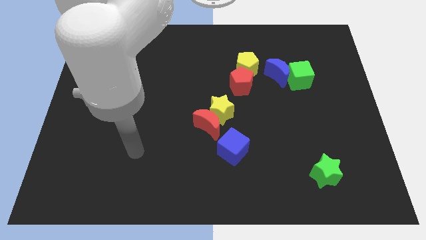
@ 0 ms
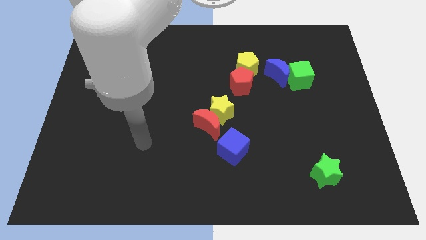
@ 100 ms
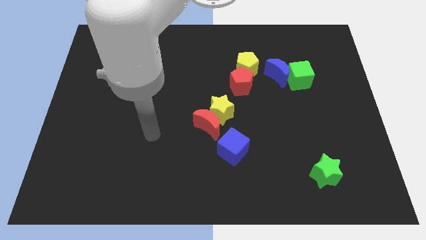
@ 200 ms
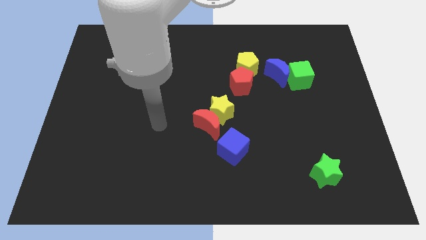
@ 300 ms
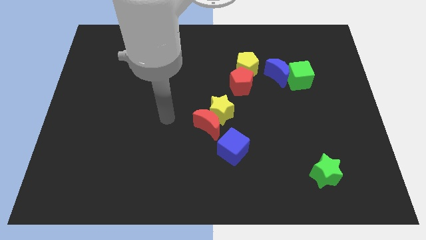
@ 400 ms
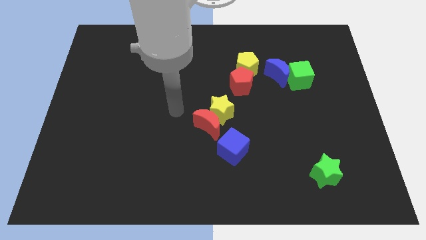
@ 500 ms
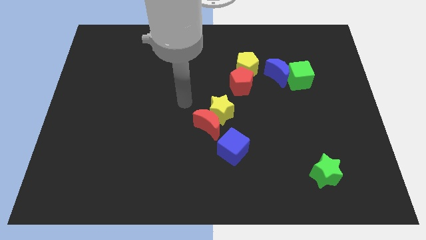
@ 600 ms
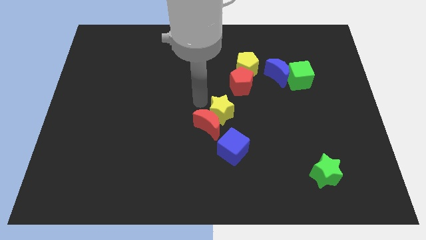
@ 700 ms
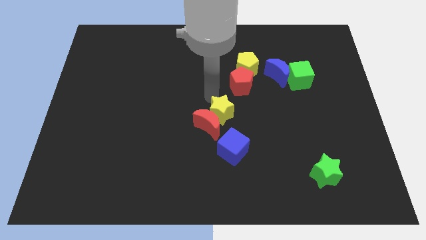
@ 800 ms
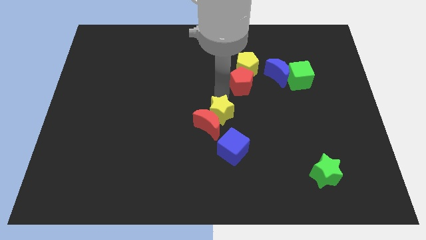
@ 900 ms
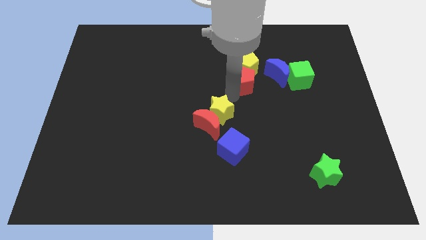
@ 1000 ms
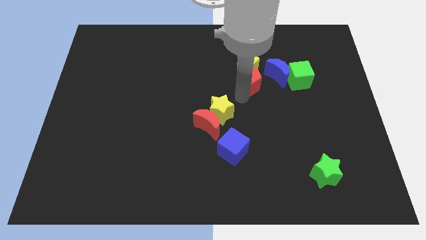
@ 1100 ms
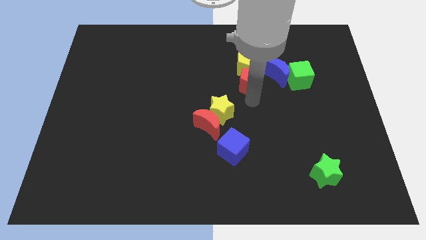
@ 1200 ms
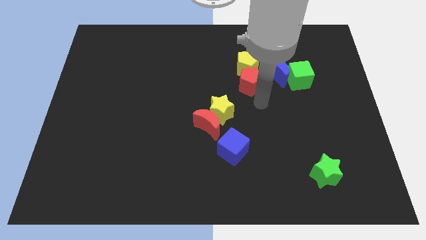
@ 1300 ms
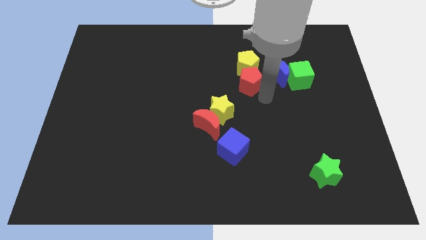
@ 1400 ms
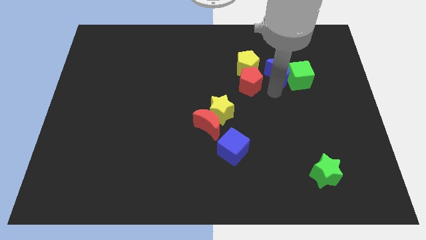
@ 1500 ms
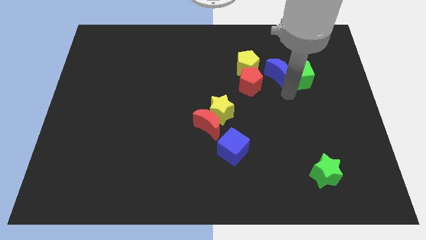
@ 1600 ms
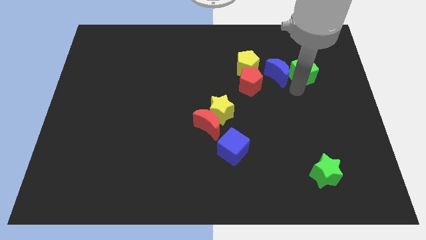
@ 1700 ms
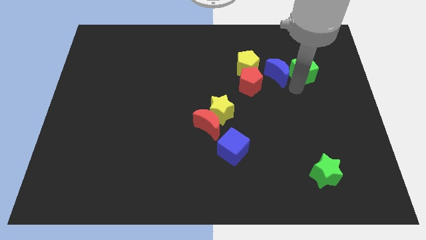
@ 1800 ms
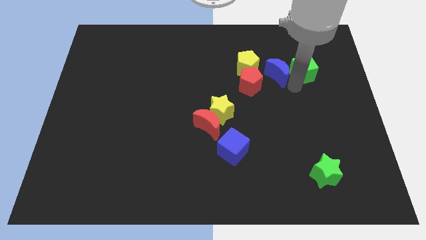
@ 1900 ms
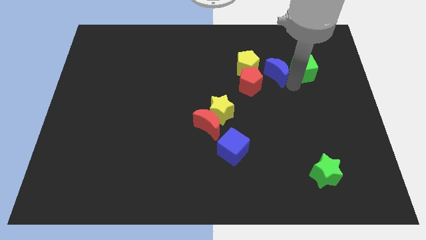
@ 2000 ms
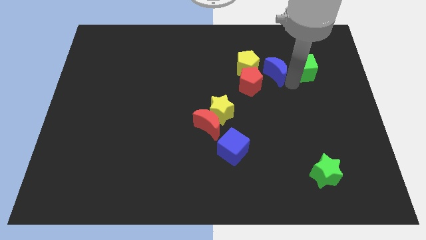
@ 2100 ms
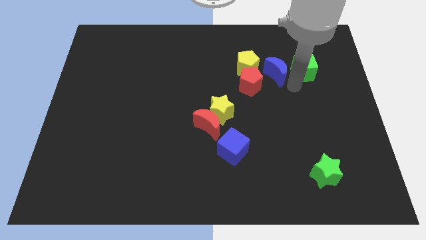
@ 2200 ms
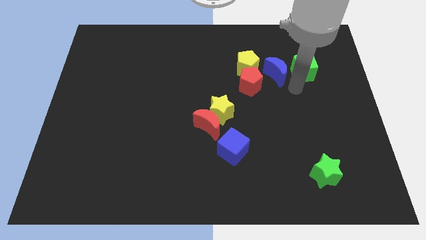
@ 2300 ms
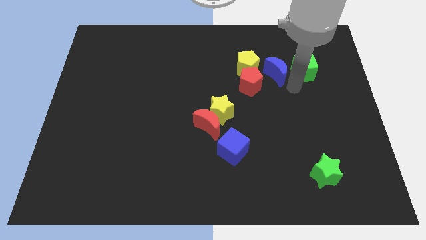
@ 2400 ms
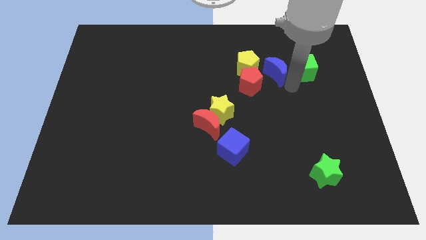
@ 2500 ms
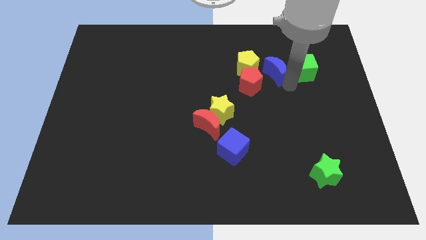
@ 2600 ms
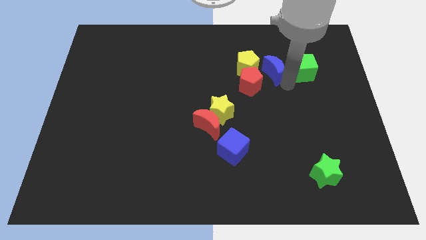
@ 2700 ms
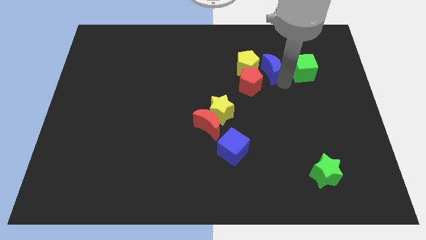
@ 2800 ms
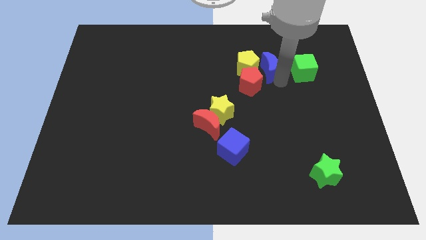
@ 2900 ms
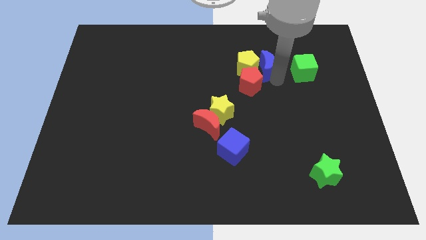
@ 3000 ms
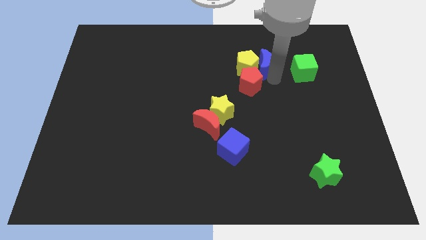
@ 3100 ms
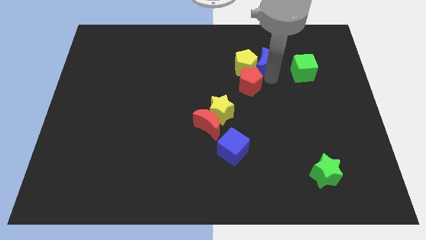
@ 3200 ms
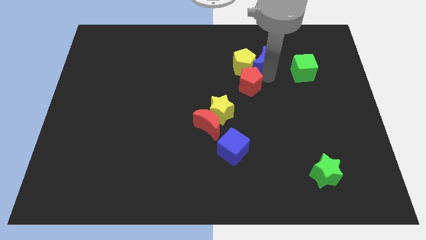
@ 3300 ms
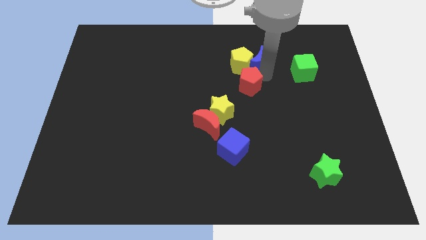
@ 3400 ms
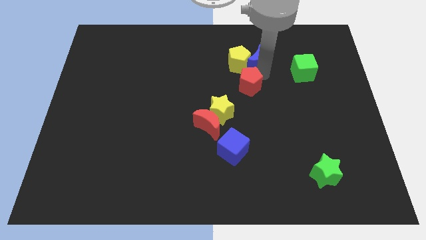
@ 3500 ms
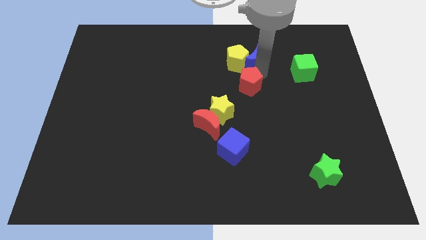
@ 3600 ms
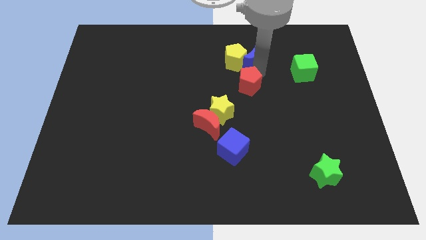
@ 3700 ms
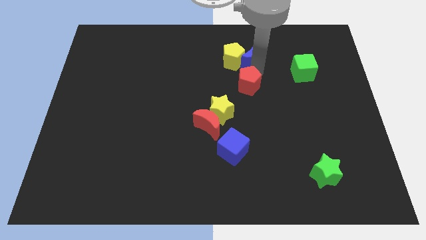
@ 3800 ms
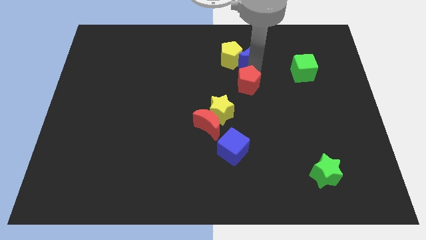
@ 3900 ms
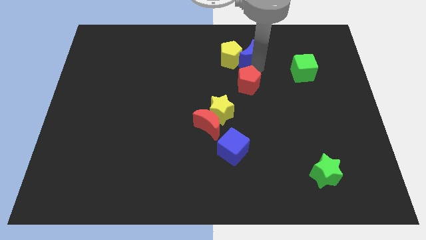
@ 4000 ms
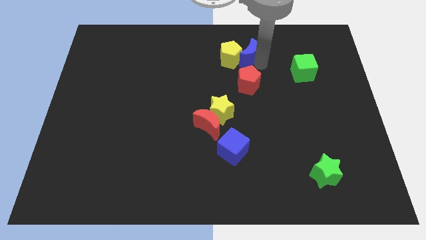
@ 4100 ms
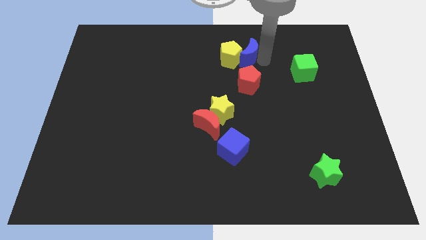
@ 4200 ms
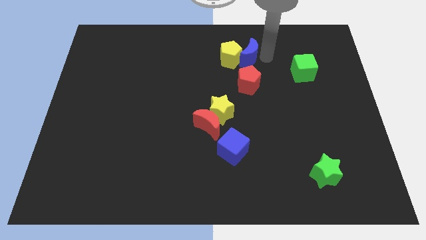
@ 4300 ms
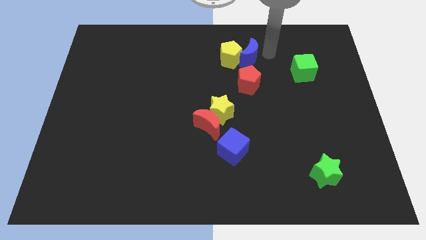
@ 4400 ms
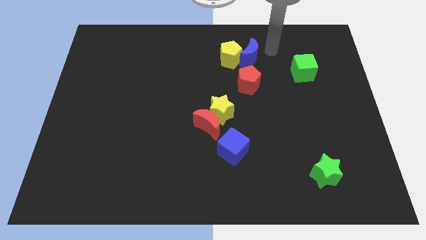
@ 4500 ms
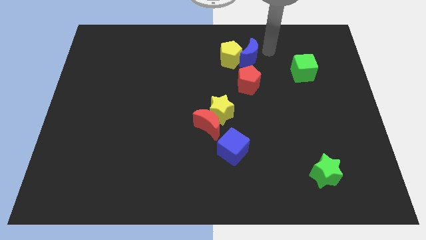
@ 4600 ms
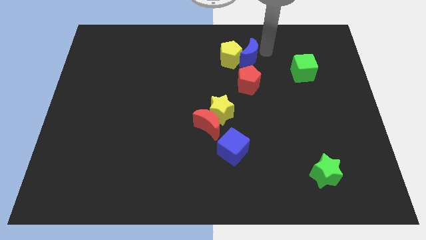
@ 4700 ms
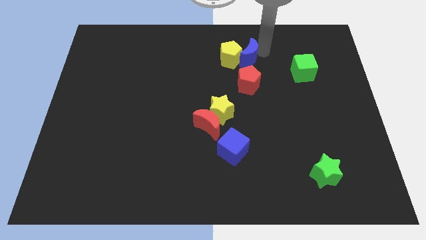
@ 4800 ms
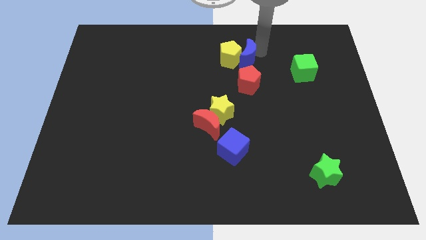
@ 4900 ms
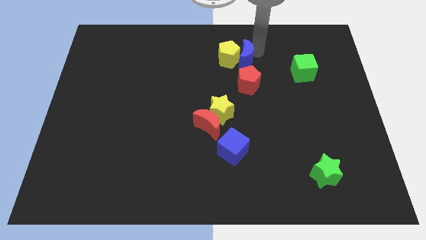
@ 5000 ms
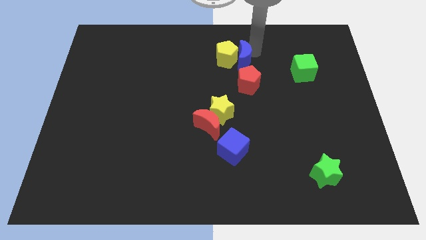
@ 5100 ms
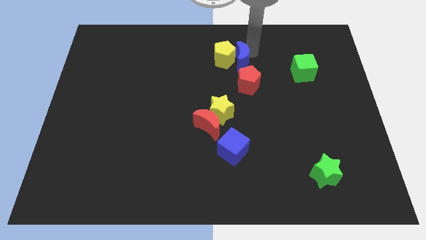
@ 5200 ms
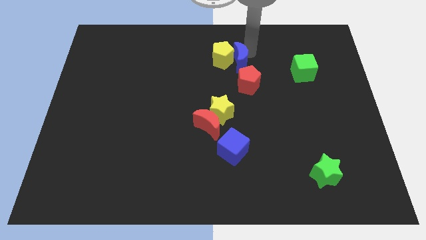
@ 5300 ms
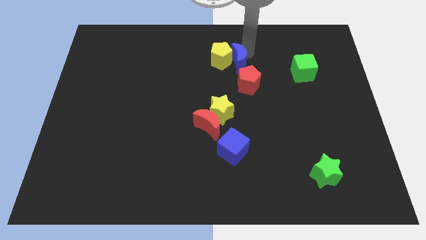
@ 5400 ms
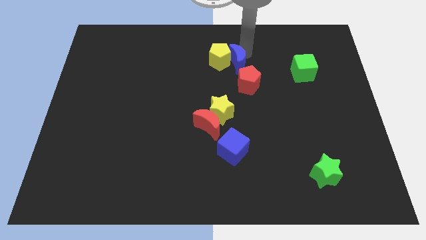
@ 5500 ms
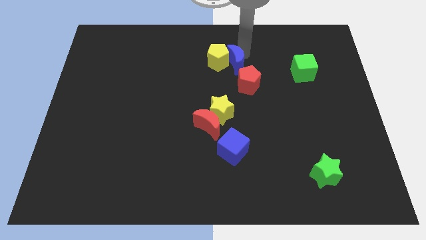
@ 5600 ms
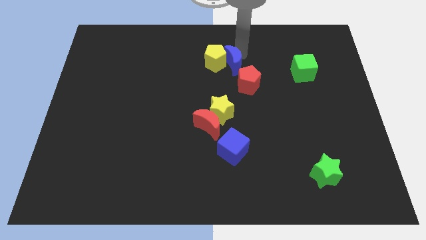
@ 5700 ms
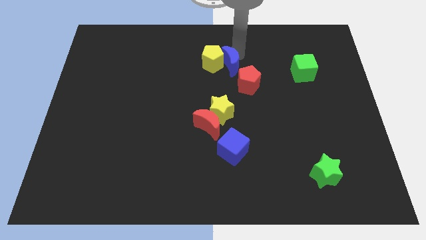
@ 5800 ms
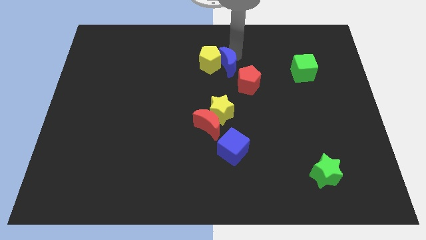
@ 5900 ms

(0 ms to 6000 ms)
put the blue moon above the yellow star
